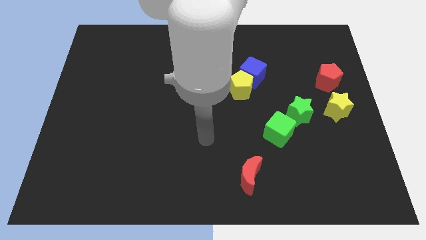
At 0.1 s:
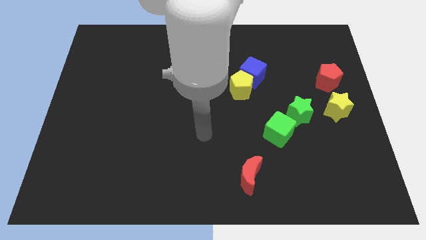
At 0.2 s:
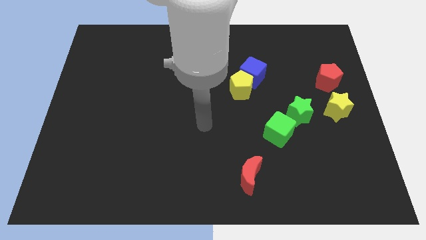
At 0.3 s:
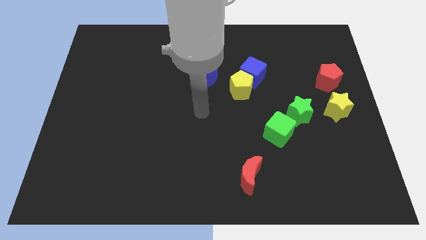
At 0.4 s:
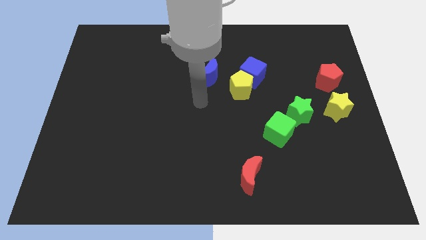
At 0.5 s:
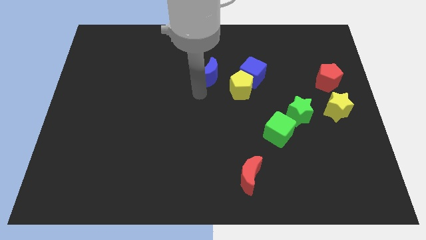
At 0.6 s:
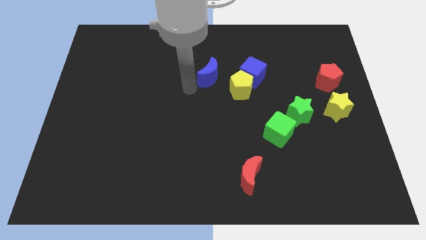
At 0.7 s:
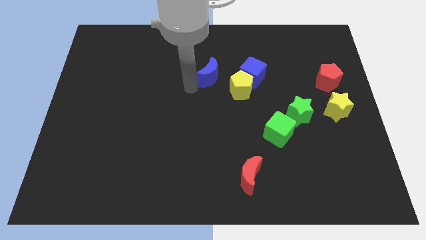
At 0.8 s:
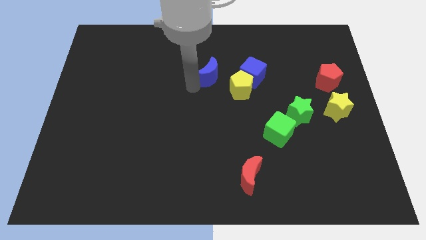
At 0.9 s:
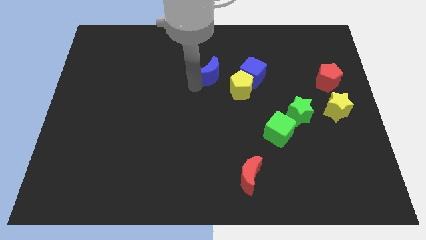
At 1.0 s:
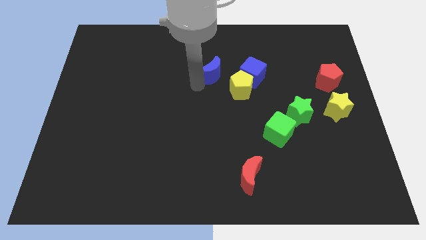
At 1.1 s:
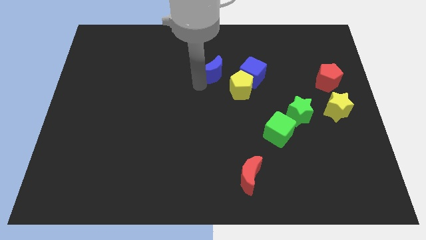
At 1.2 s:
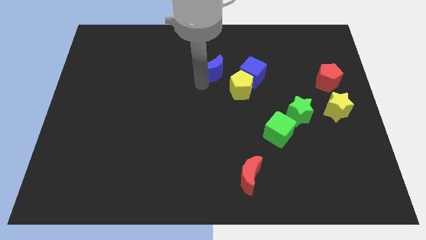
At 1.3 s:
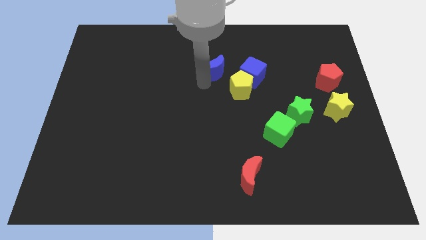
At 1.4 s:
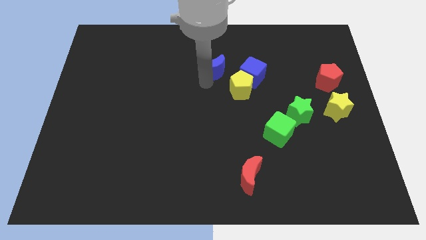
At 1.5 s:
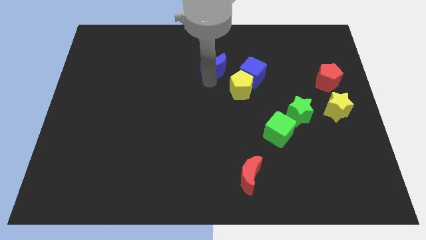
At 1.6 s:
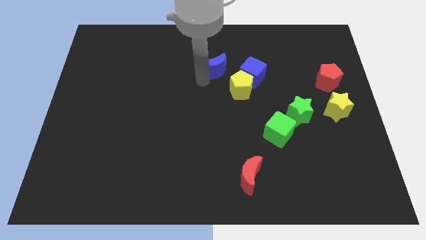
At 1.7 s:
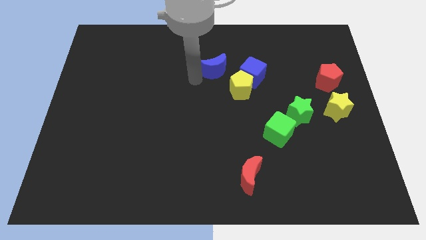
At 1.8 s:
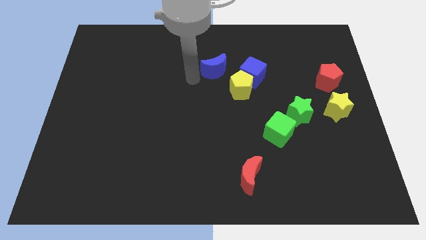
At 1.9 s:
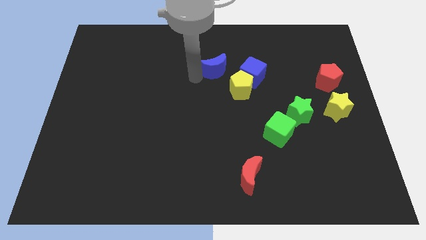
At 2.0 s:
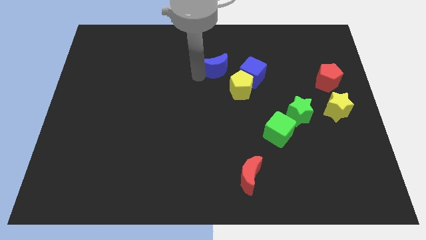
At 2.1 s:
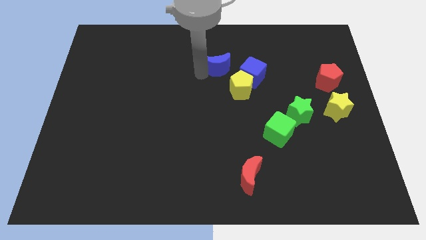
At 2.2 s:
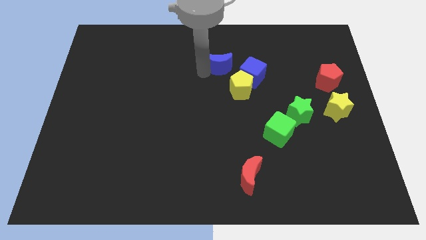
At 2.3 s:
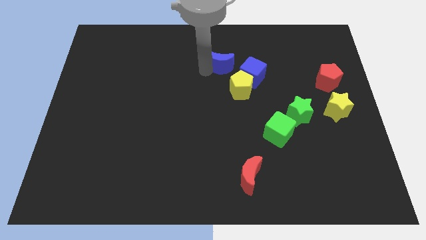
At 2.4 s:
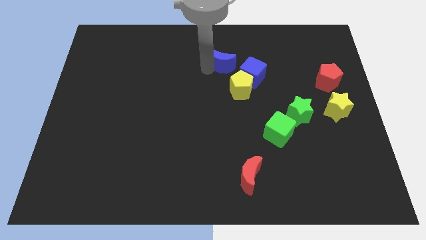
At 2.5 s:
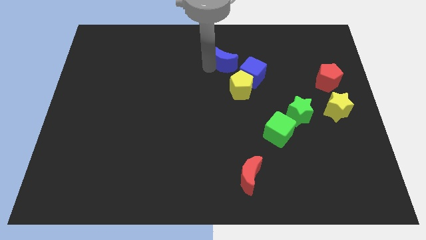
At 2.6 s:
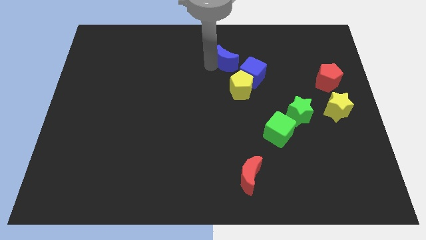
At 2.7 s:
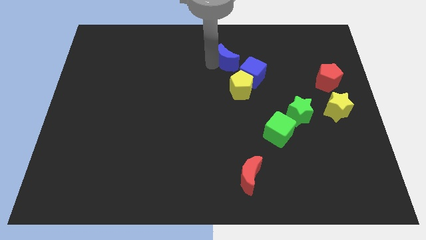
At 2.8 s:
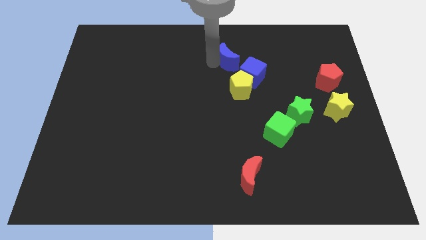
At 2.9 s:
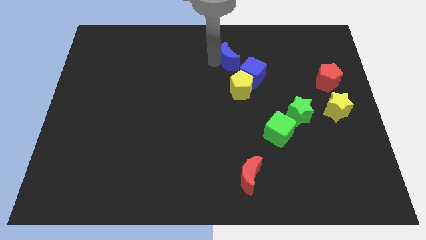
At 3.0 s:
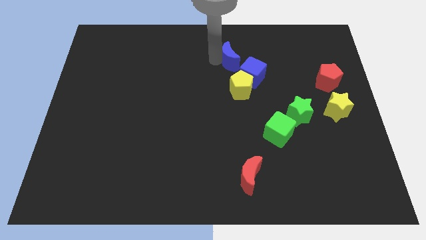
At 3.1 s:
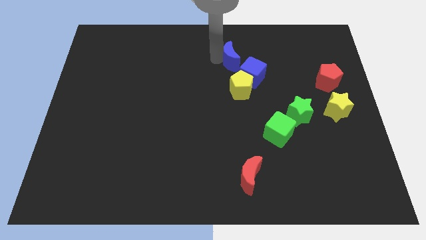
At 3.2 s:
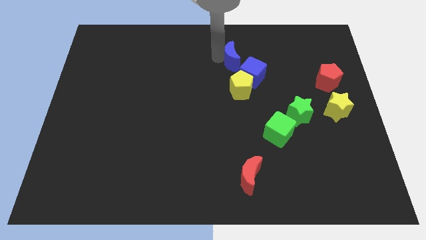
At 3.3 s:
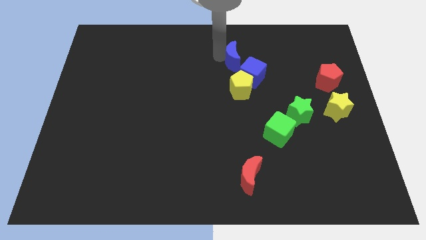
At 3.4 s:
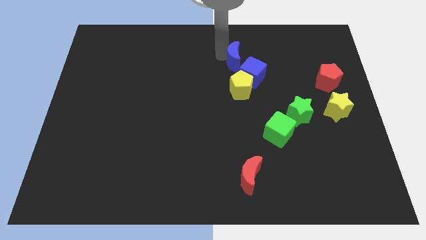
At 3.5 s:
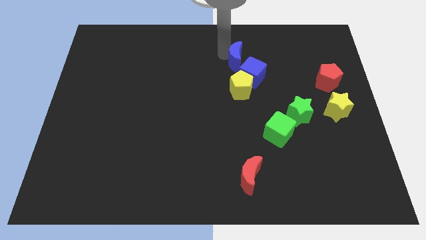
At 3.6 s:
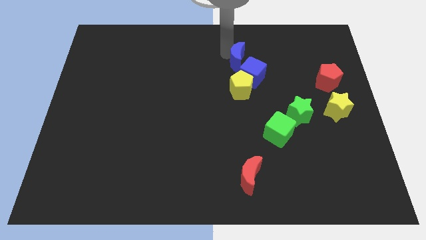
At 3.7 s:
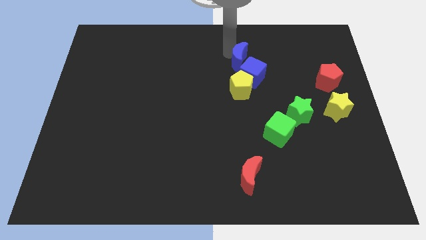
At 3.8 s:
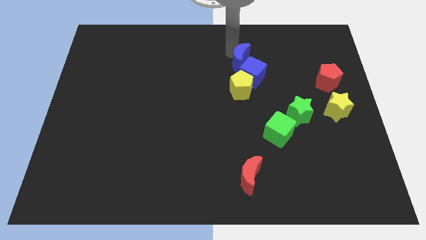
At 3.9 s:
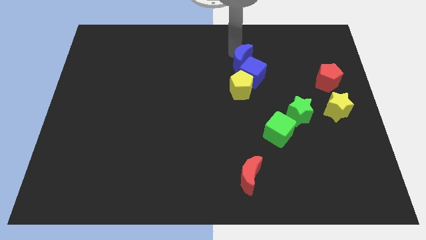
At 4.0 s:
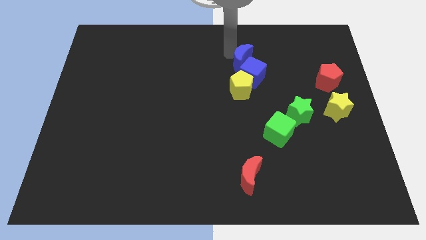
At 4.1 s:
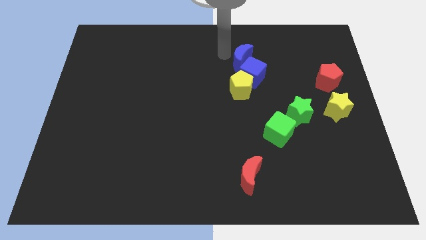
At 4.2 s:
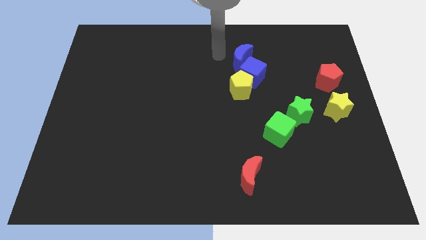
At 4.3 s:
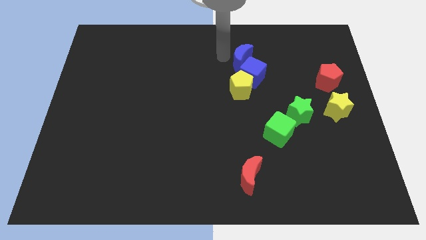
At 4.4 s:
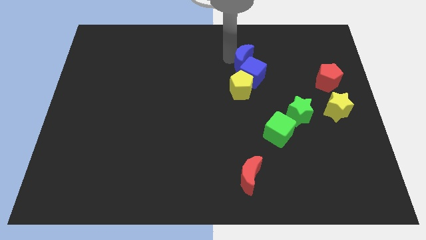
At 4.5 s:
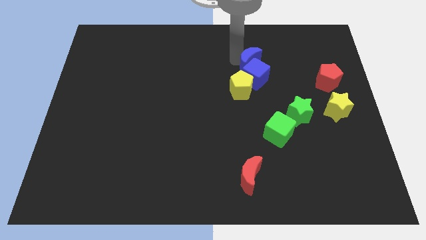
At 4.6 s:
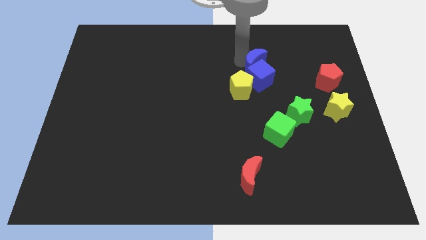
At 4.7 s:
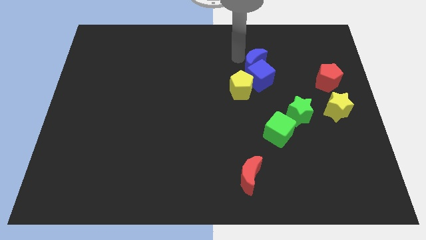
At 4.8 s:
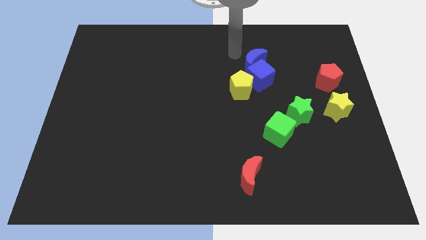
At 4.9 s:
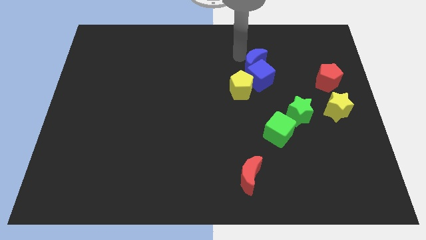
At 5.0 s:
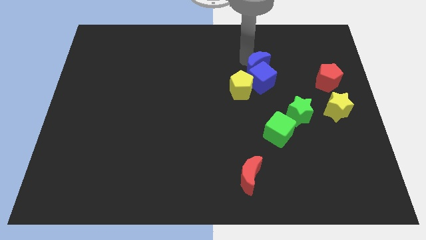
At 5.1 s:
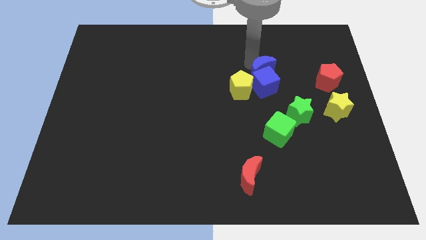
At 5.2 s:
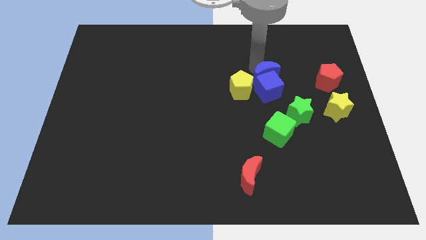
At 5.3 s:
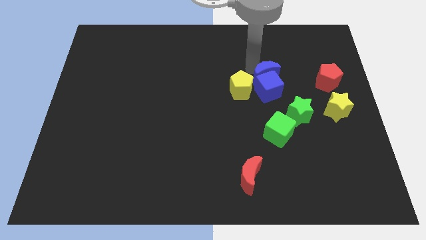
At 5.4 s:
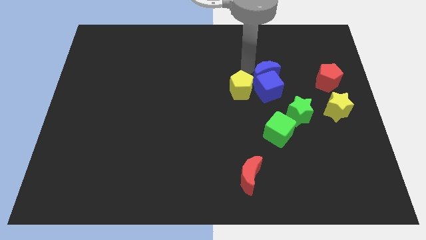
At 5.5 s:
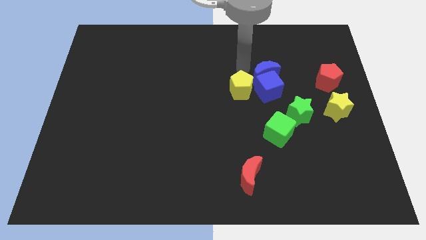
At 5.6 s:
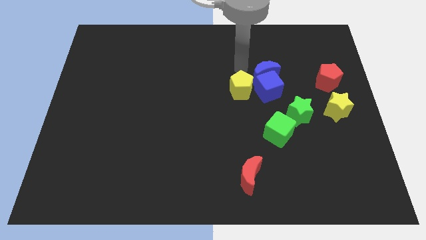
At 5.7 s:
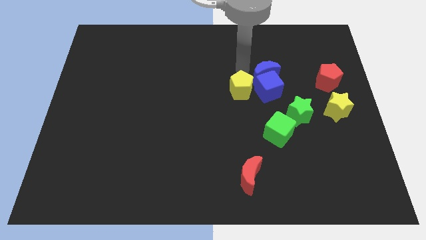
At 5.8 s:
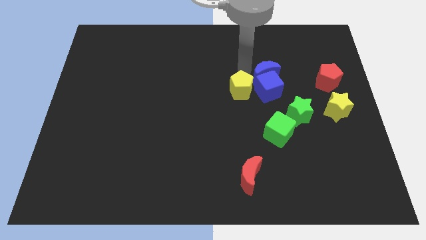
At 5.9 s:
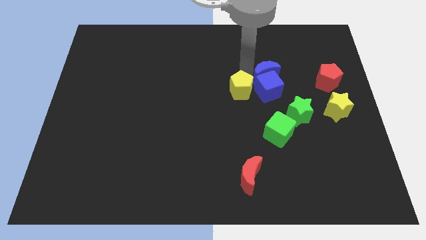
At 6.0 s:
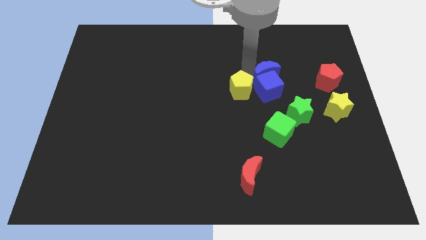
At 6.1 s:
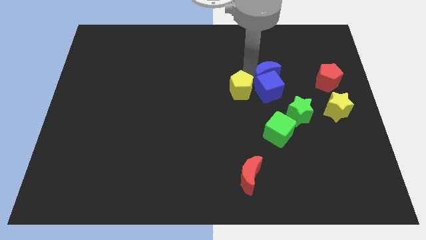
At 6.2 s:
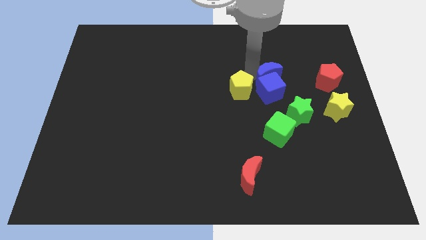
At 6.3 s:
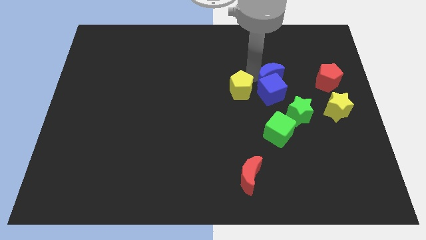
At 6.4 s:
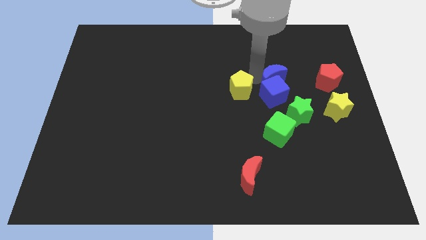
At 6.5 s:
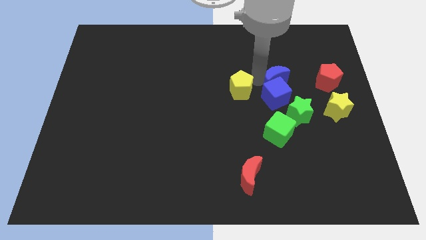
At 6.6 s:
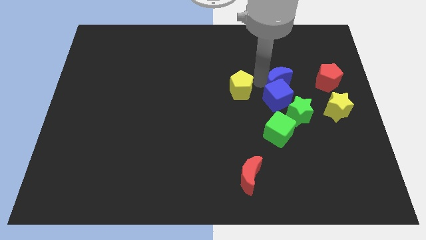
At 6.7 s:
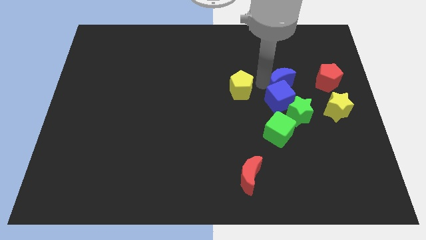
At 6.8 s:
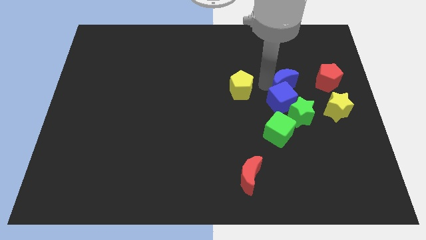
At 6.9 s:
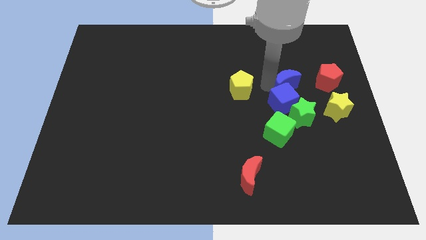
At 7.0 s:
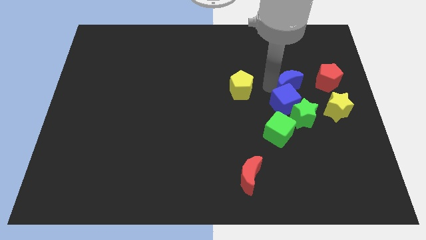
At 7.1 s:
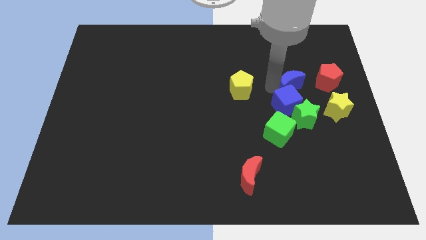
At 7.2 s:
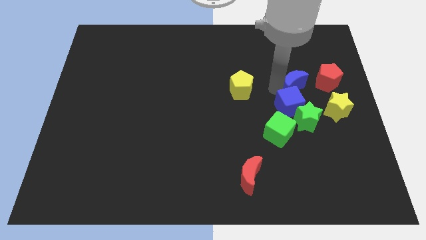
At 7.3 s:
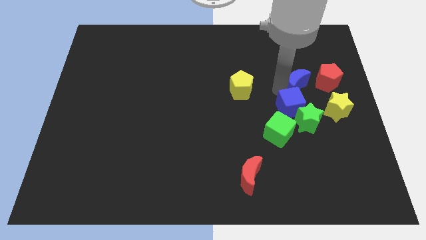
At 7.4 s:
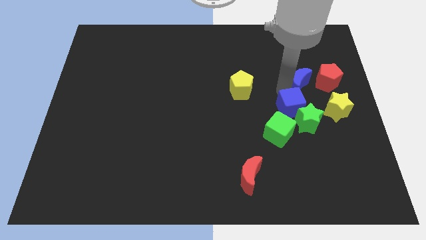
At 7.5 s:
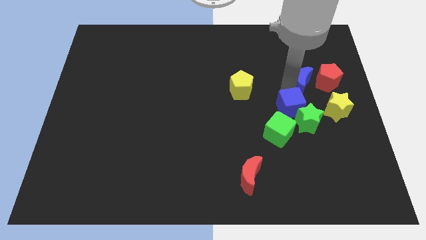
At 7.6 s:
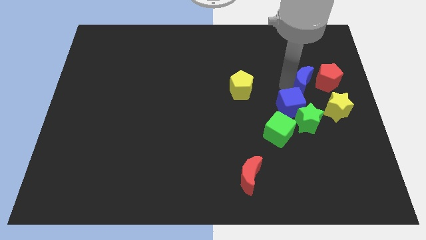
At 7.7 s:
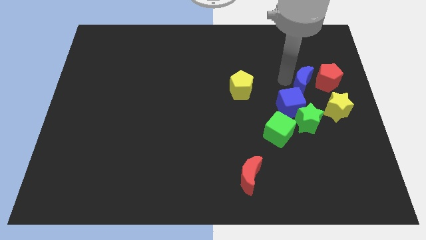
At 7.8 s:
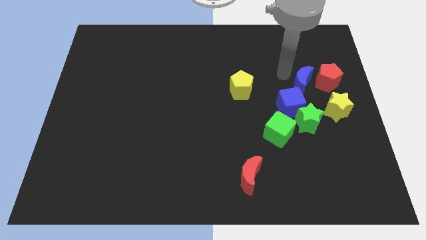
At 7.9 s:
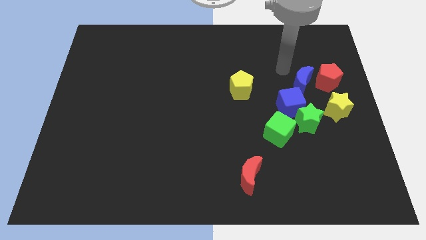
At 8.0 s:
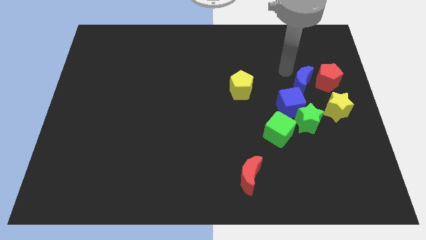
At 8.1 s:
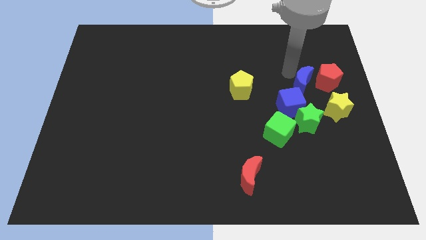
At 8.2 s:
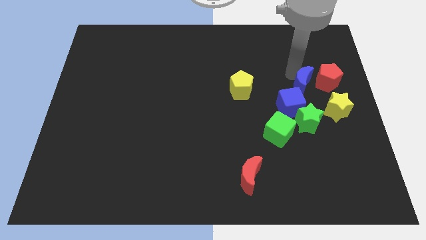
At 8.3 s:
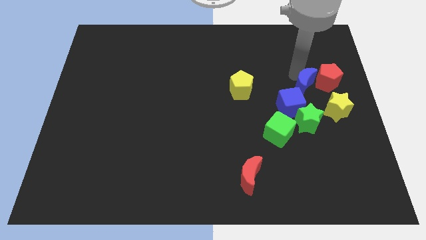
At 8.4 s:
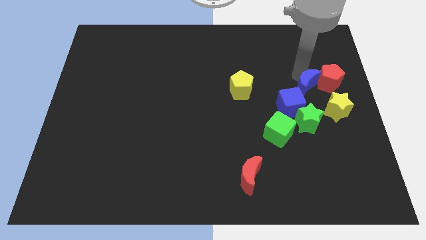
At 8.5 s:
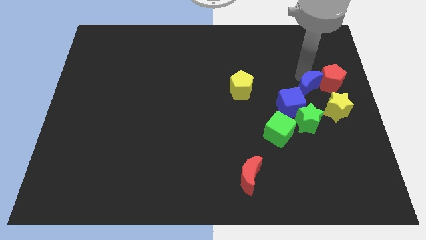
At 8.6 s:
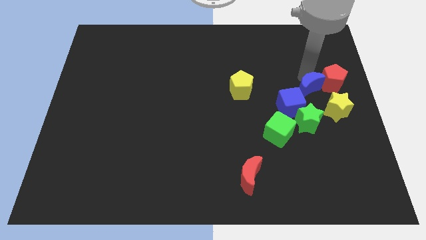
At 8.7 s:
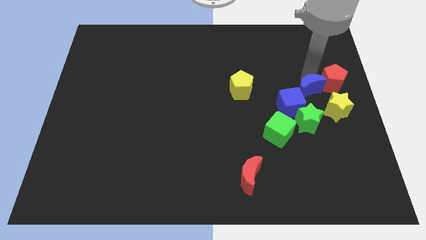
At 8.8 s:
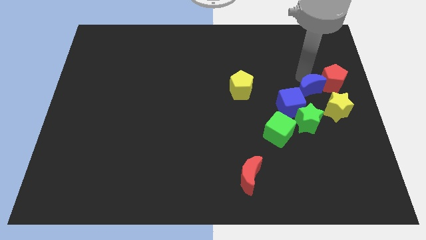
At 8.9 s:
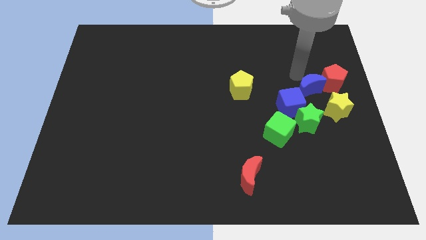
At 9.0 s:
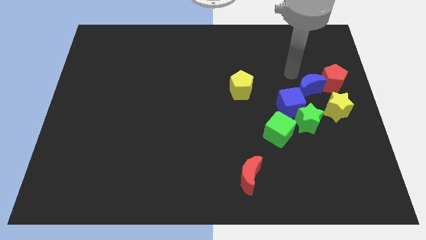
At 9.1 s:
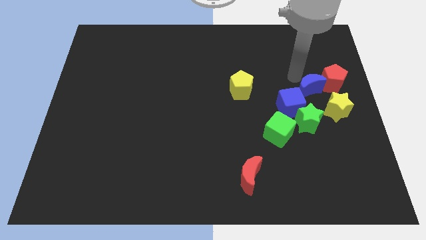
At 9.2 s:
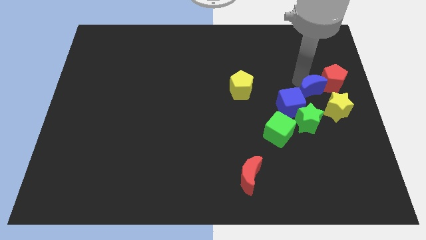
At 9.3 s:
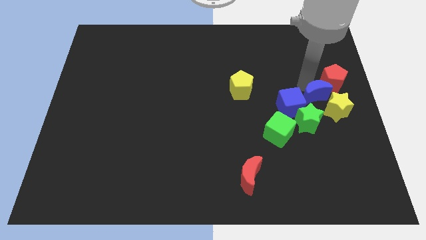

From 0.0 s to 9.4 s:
put the blue moon to the top right side of the green star
